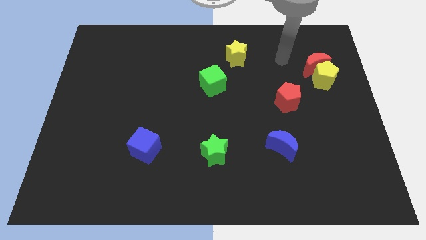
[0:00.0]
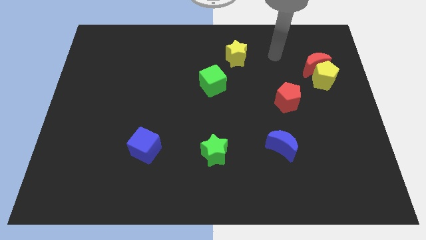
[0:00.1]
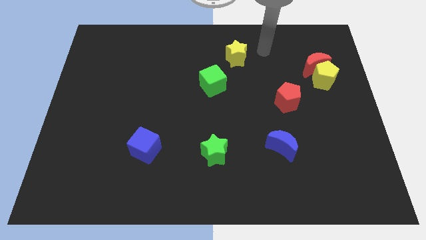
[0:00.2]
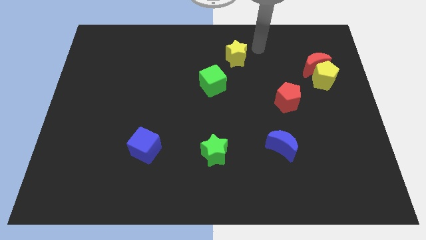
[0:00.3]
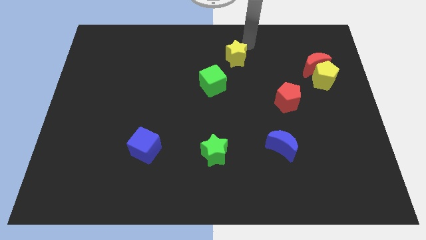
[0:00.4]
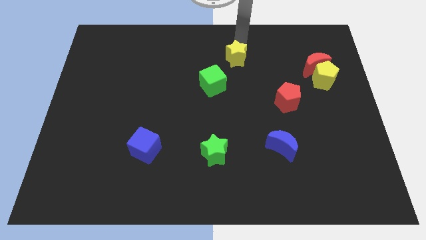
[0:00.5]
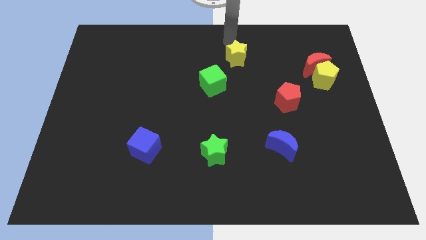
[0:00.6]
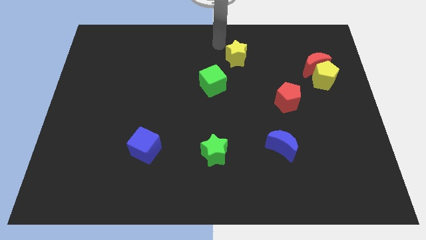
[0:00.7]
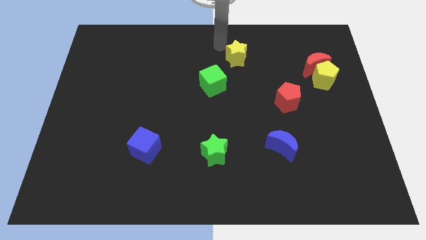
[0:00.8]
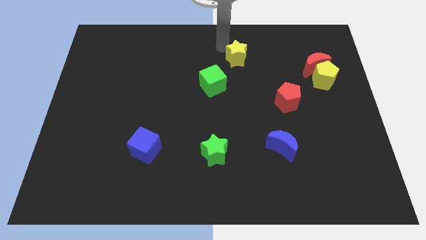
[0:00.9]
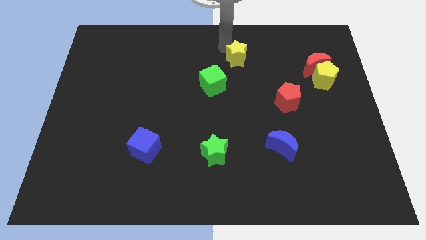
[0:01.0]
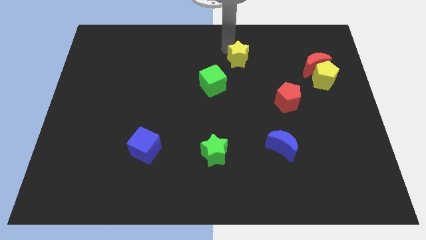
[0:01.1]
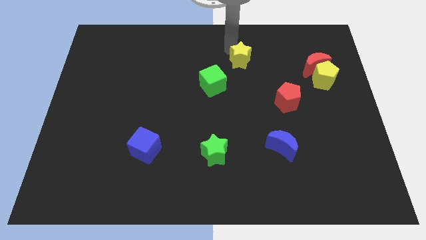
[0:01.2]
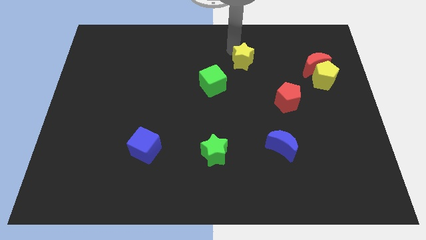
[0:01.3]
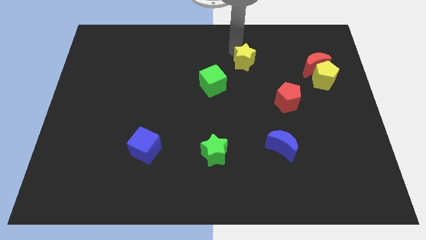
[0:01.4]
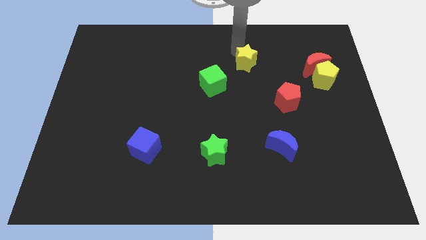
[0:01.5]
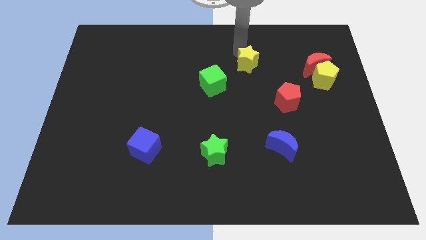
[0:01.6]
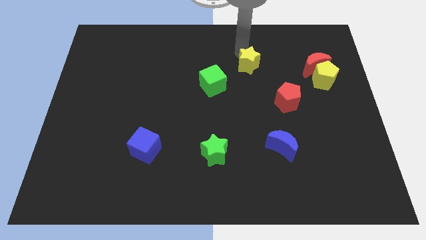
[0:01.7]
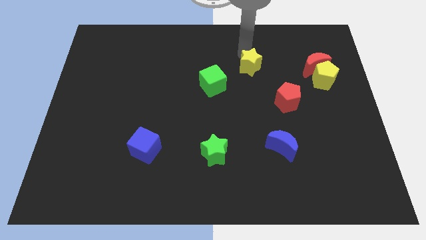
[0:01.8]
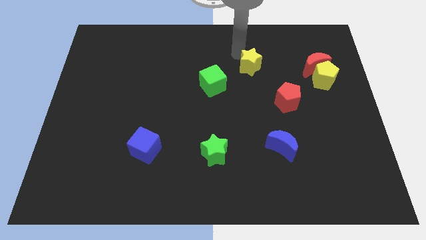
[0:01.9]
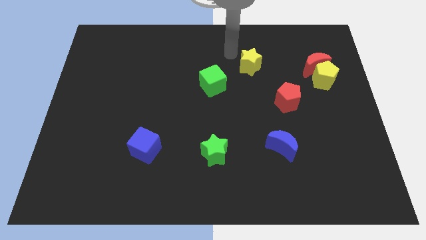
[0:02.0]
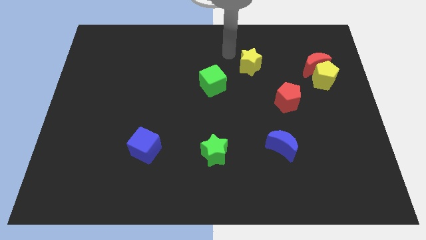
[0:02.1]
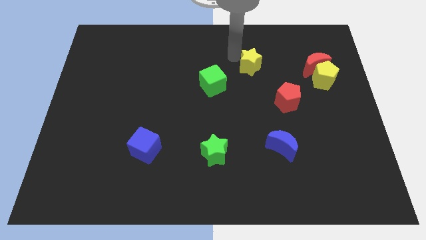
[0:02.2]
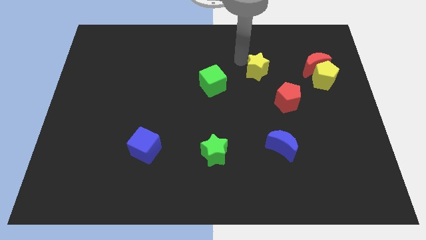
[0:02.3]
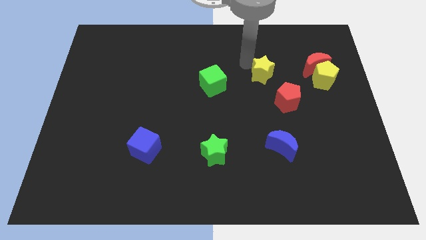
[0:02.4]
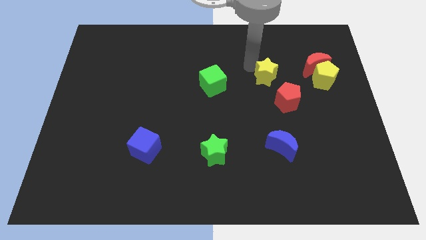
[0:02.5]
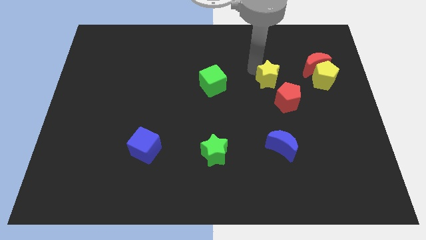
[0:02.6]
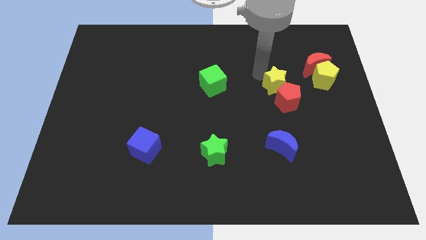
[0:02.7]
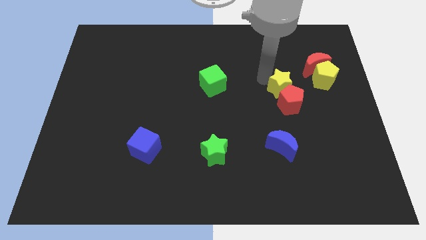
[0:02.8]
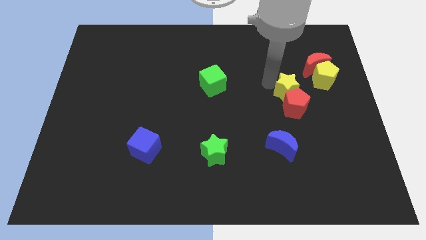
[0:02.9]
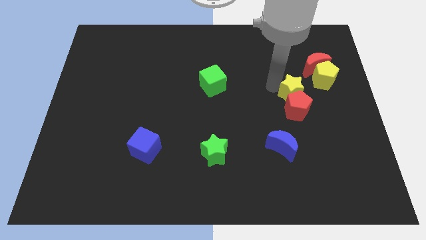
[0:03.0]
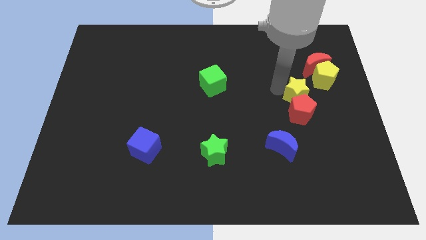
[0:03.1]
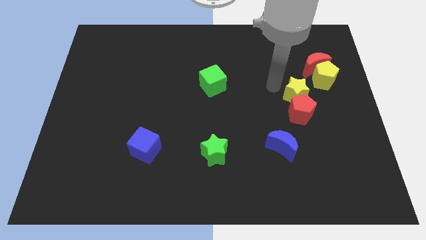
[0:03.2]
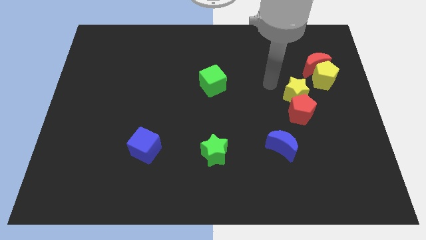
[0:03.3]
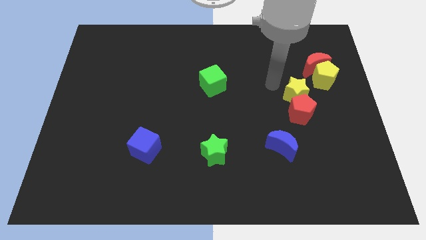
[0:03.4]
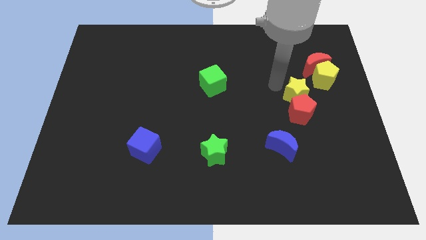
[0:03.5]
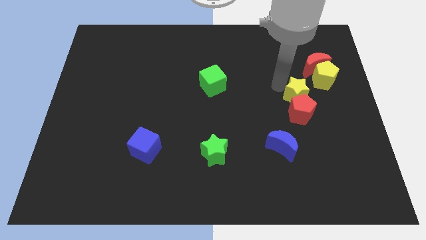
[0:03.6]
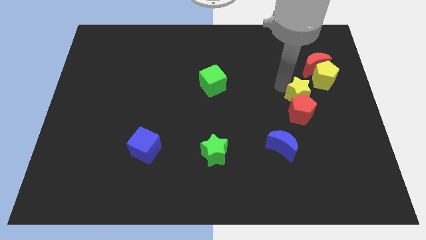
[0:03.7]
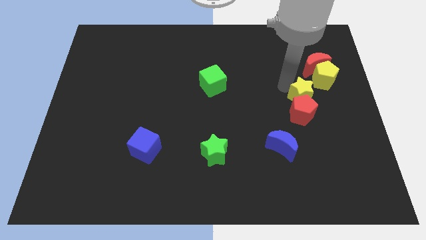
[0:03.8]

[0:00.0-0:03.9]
slide the yellow star downwards and right

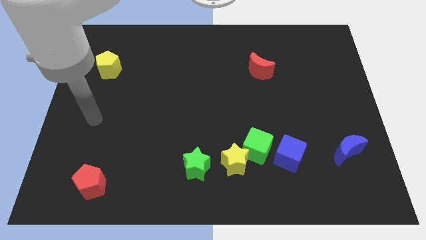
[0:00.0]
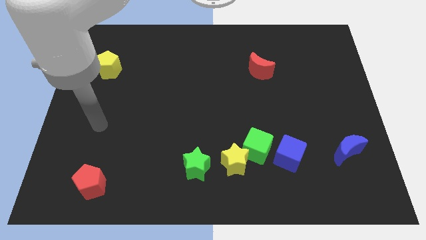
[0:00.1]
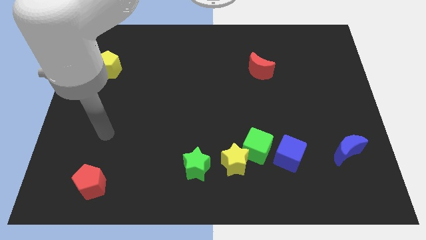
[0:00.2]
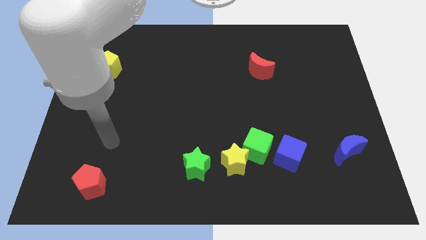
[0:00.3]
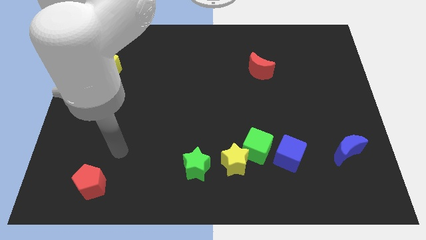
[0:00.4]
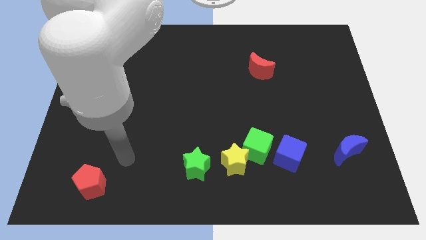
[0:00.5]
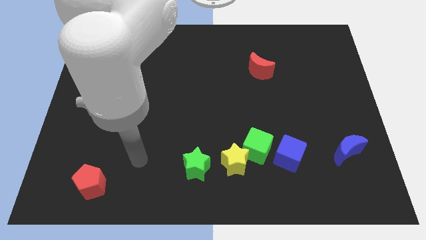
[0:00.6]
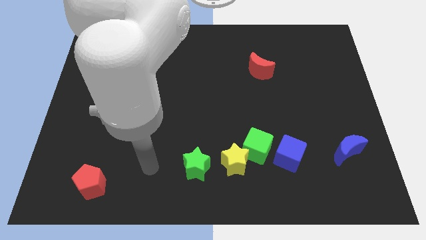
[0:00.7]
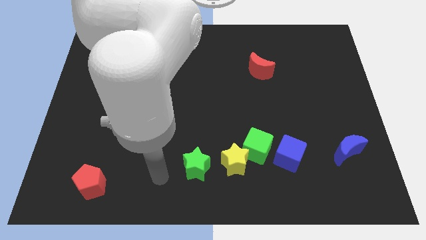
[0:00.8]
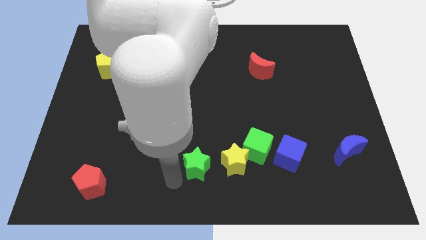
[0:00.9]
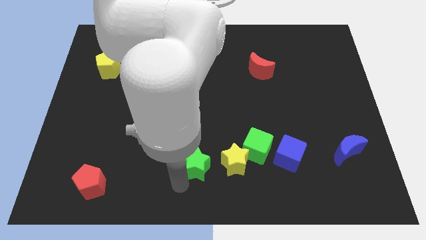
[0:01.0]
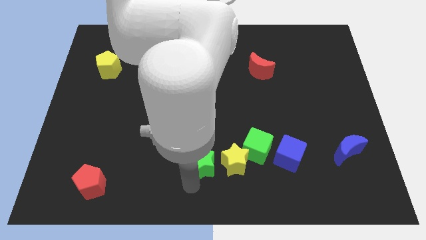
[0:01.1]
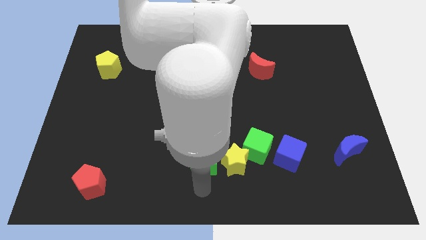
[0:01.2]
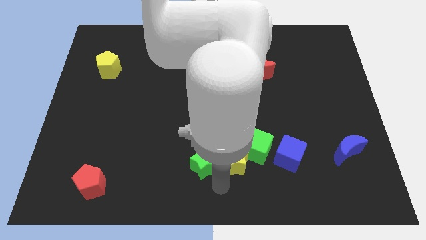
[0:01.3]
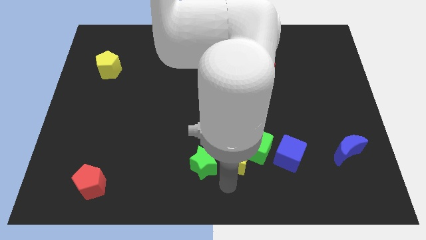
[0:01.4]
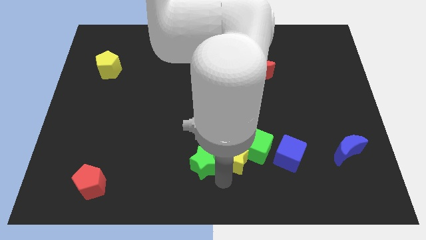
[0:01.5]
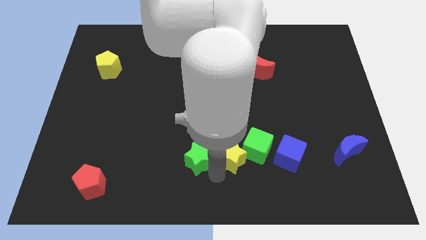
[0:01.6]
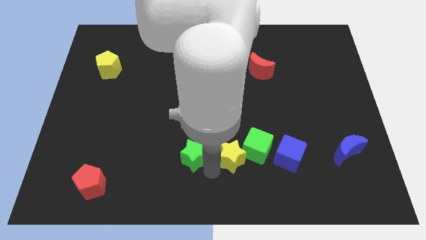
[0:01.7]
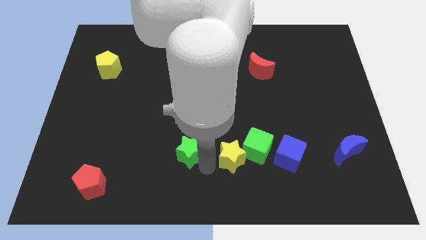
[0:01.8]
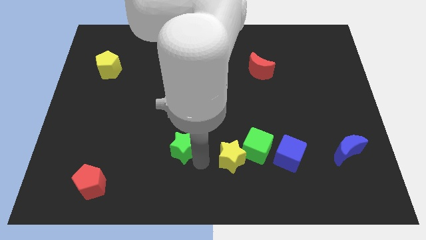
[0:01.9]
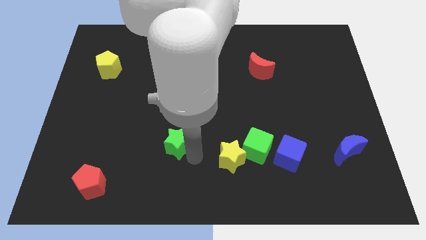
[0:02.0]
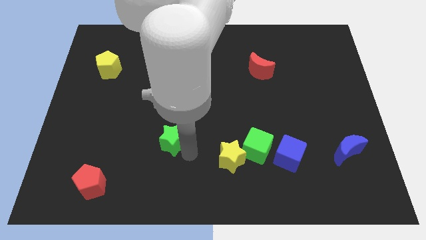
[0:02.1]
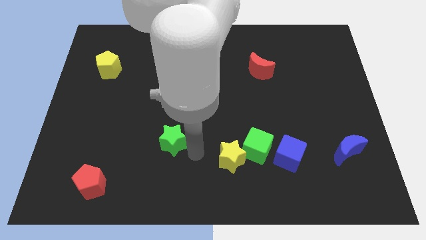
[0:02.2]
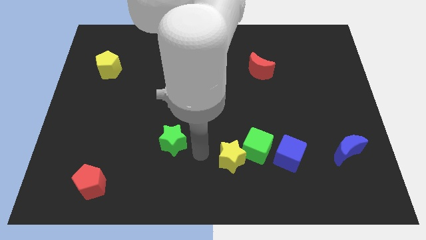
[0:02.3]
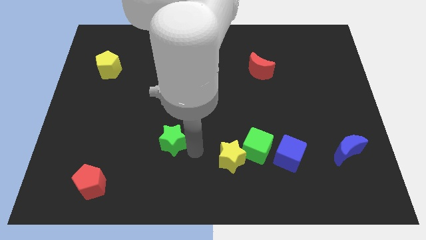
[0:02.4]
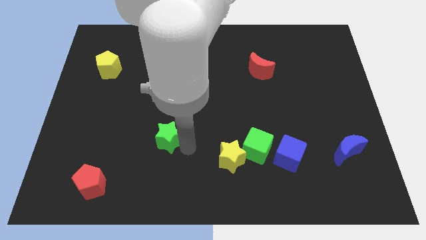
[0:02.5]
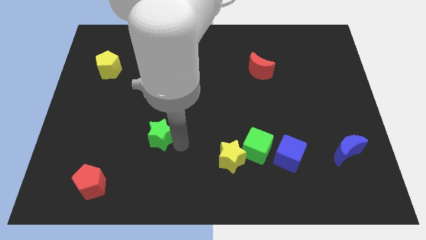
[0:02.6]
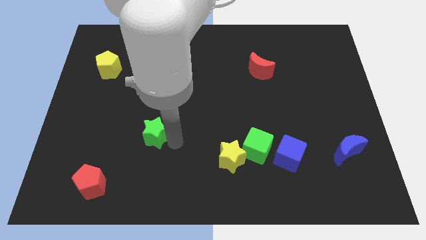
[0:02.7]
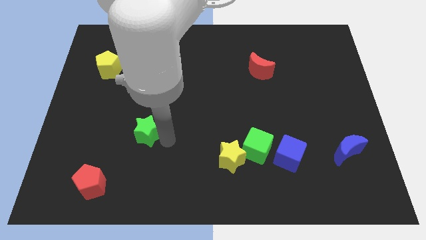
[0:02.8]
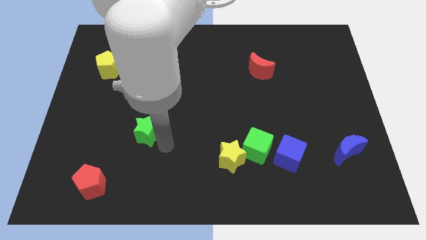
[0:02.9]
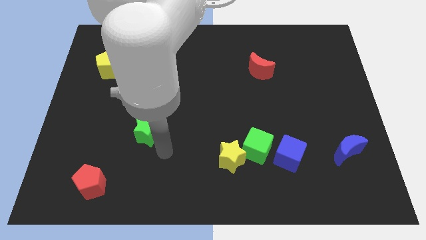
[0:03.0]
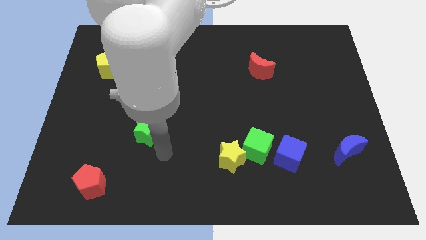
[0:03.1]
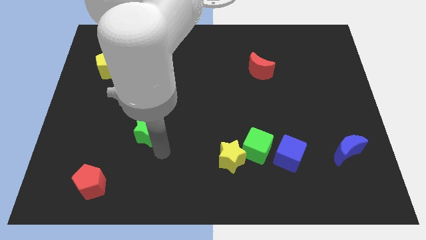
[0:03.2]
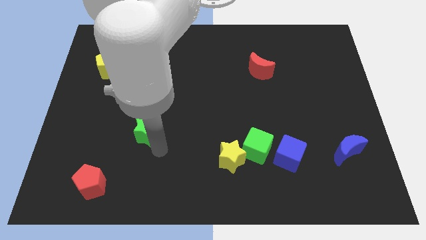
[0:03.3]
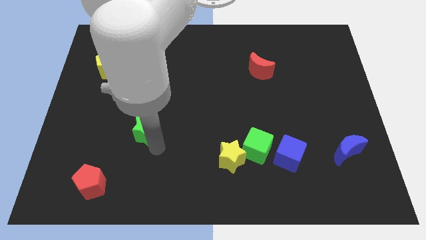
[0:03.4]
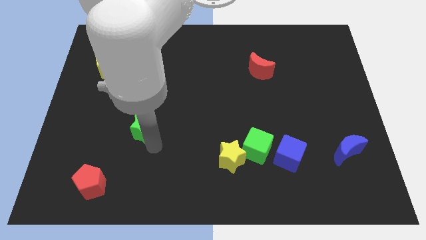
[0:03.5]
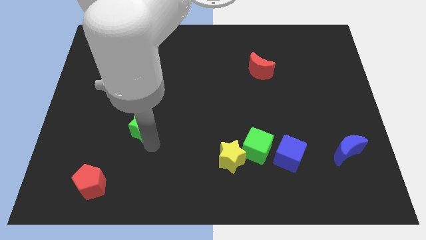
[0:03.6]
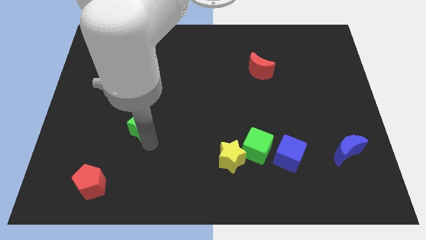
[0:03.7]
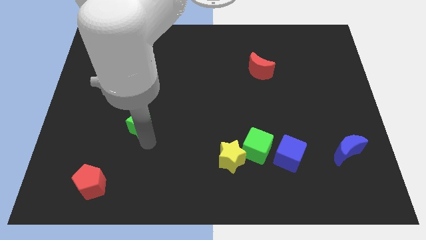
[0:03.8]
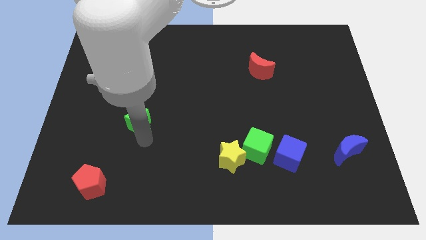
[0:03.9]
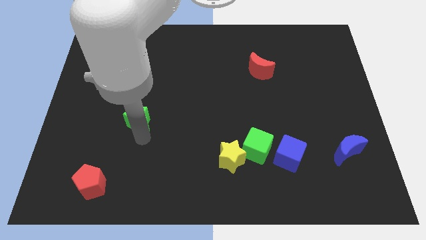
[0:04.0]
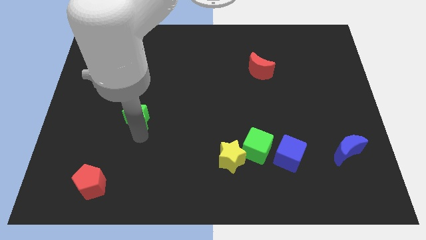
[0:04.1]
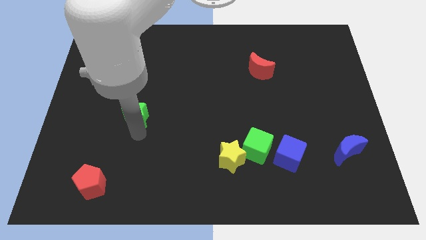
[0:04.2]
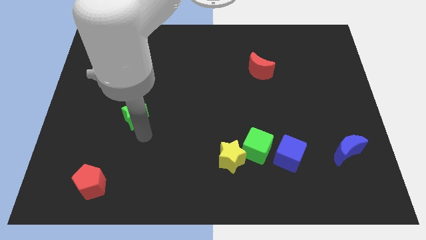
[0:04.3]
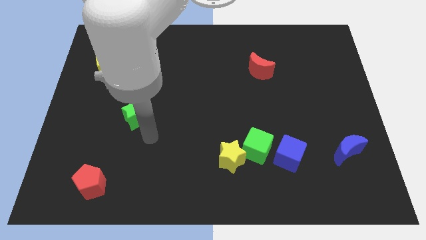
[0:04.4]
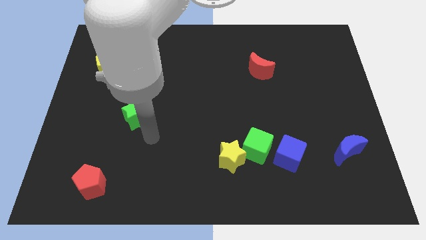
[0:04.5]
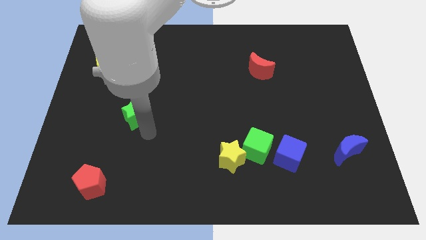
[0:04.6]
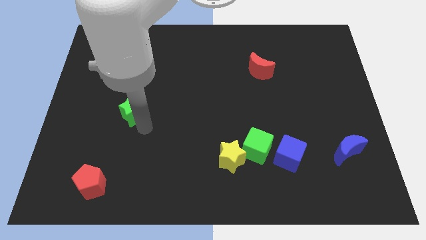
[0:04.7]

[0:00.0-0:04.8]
move the green star upwards and then to the left
